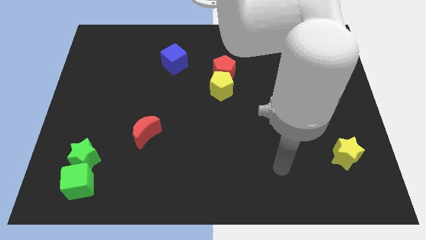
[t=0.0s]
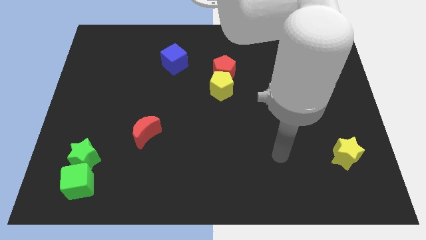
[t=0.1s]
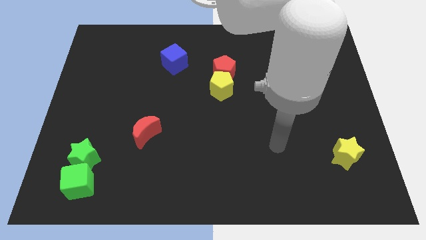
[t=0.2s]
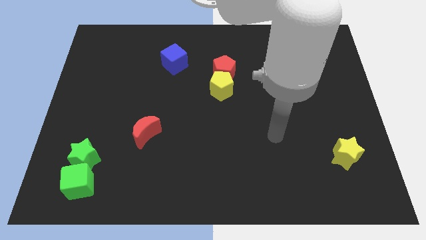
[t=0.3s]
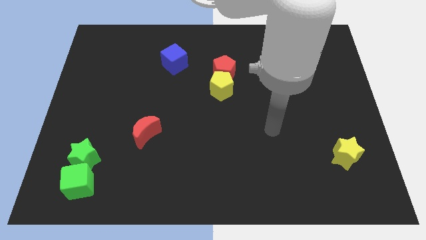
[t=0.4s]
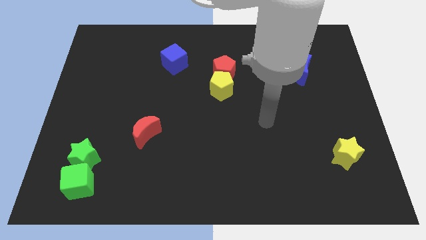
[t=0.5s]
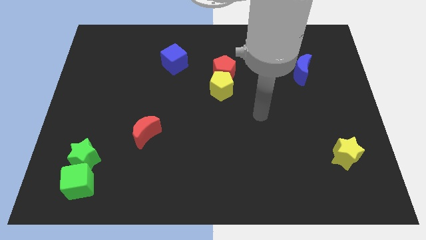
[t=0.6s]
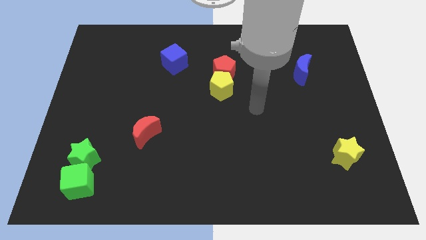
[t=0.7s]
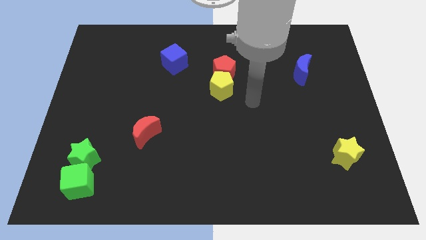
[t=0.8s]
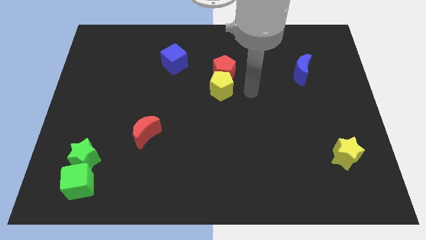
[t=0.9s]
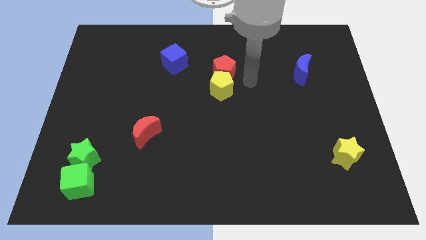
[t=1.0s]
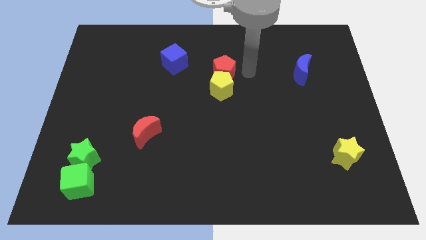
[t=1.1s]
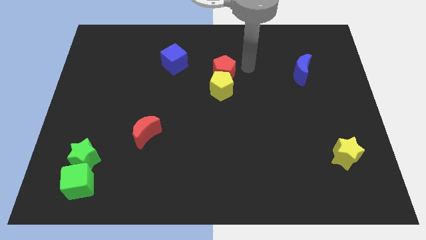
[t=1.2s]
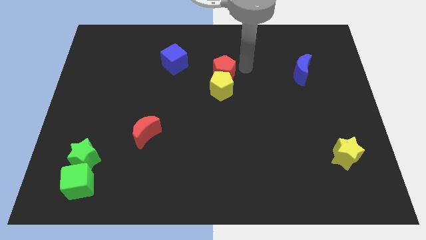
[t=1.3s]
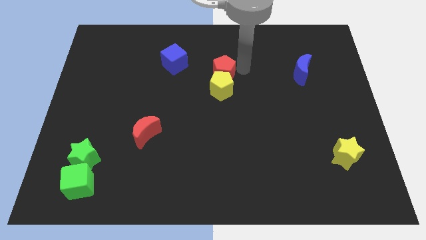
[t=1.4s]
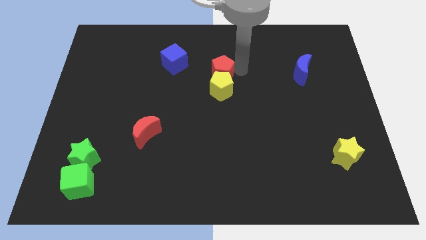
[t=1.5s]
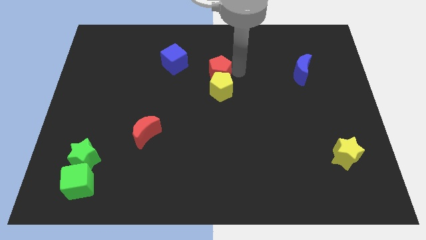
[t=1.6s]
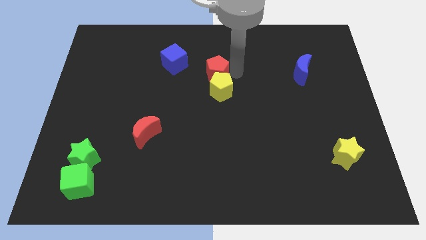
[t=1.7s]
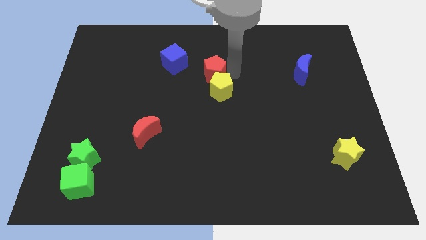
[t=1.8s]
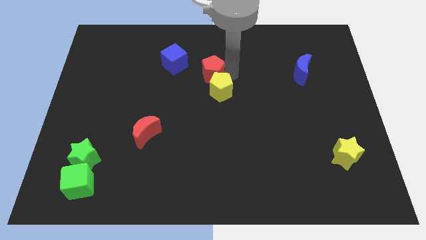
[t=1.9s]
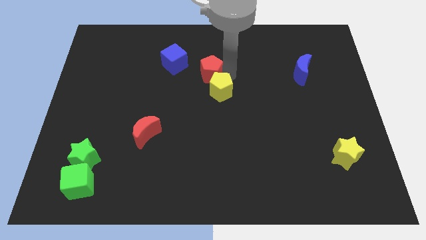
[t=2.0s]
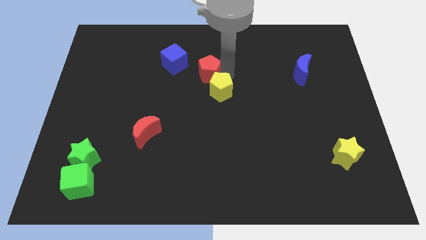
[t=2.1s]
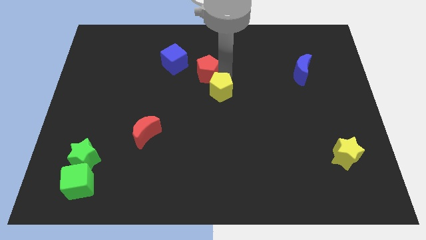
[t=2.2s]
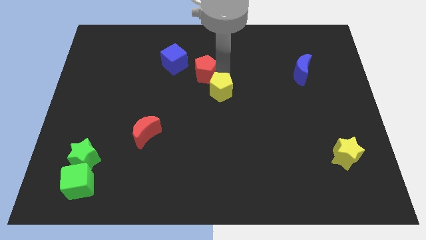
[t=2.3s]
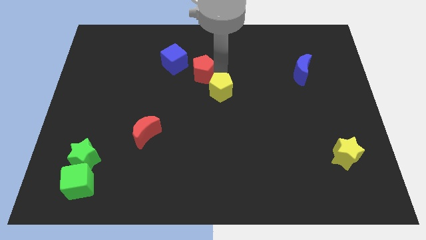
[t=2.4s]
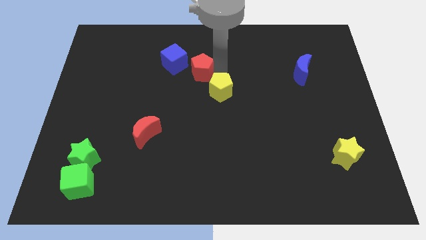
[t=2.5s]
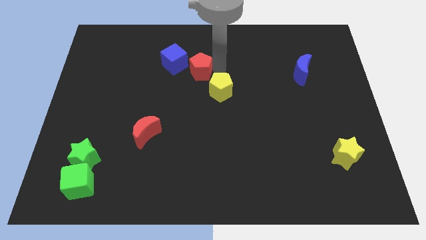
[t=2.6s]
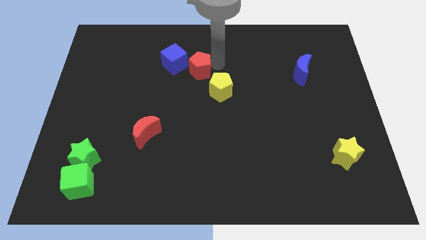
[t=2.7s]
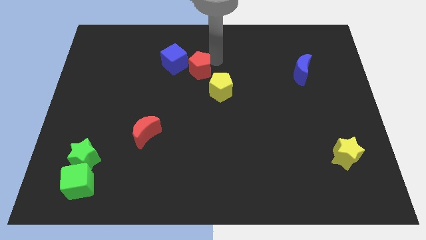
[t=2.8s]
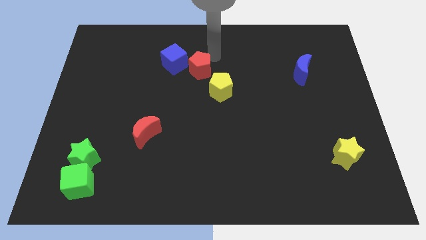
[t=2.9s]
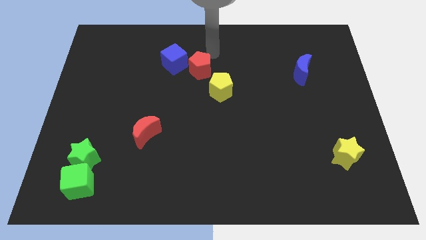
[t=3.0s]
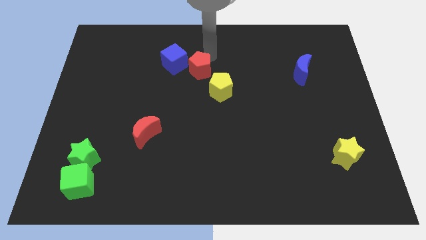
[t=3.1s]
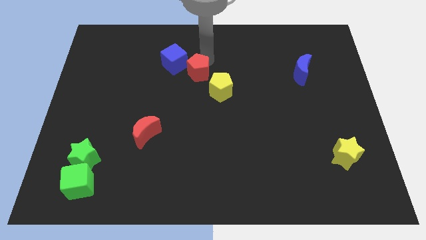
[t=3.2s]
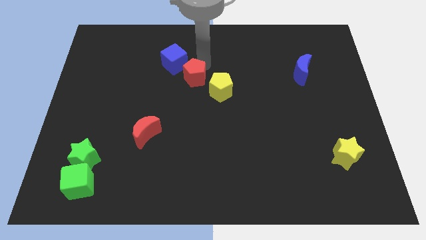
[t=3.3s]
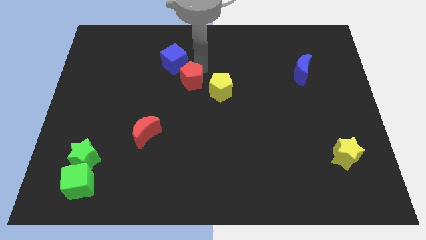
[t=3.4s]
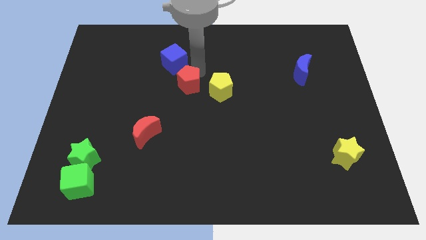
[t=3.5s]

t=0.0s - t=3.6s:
move the red pentagon somewhat diagonally down and to the left

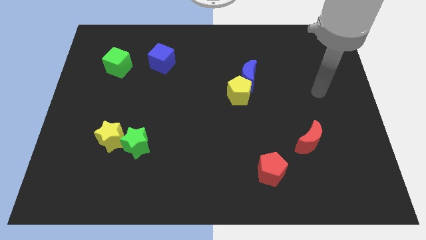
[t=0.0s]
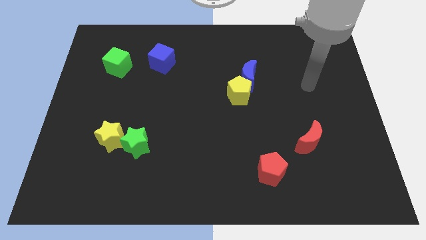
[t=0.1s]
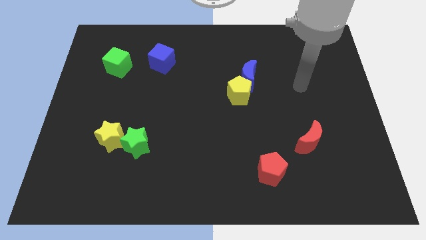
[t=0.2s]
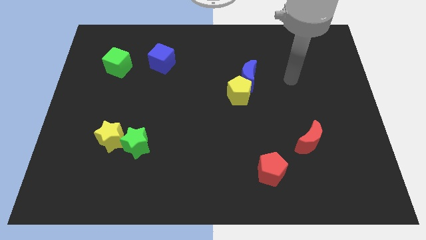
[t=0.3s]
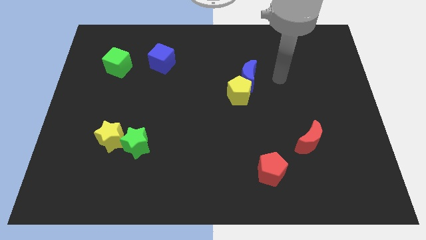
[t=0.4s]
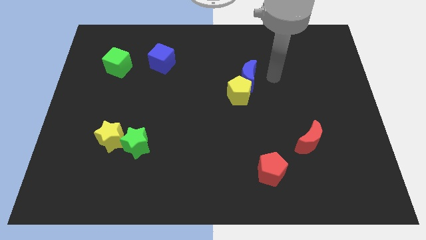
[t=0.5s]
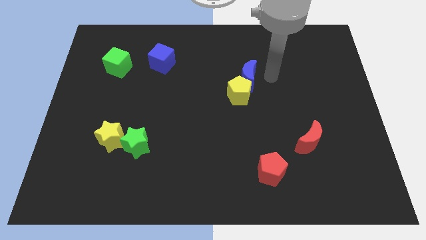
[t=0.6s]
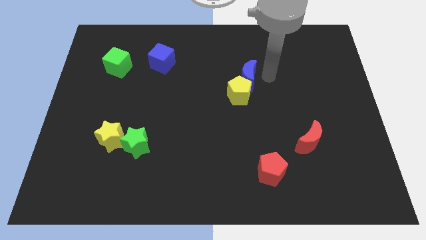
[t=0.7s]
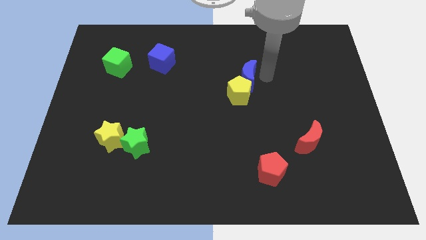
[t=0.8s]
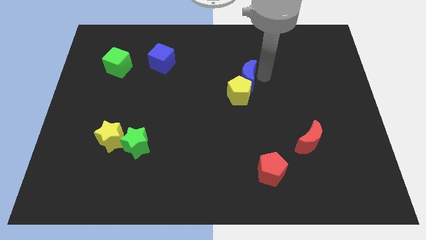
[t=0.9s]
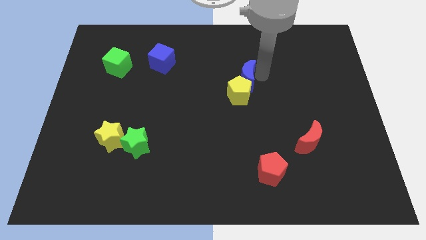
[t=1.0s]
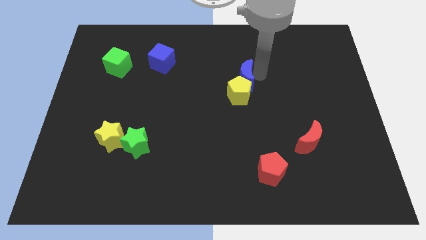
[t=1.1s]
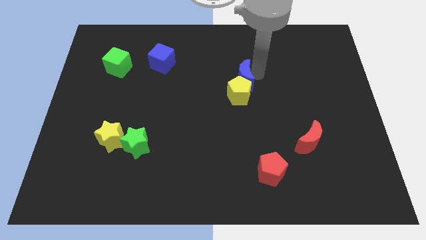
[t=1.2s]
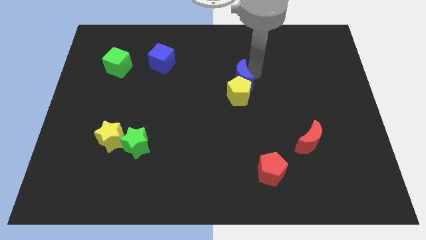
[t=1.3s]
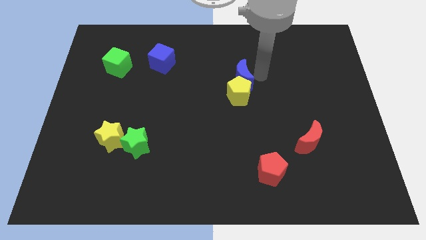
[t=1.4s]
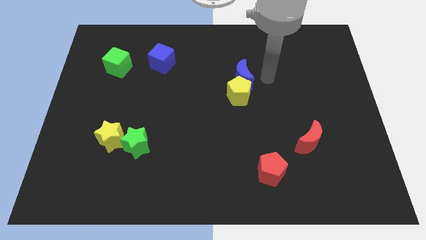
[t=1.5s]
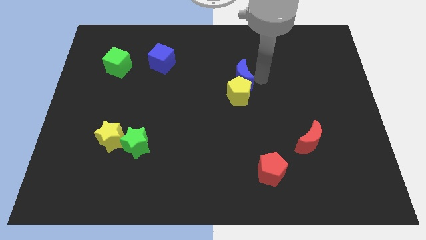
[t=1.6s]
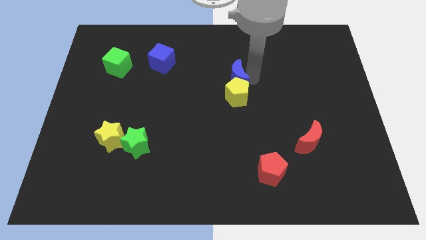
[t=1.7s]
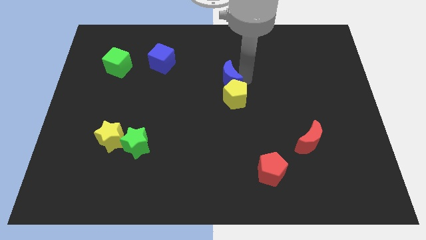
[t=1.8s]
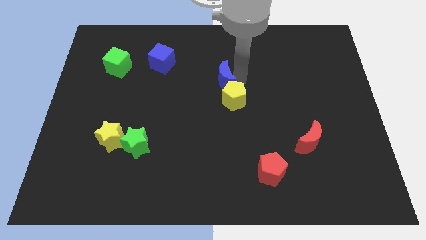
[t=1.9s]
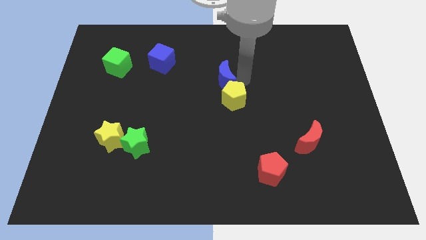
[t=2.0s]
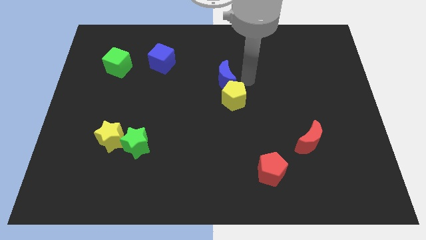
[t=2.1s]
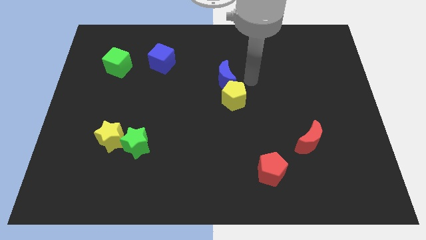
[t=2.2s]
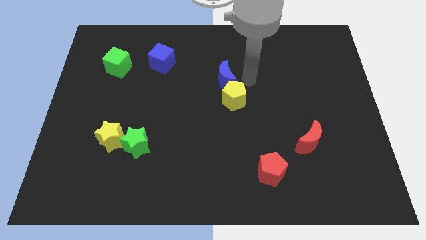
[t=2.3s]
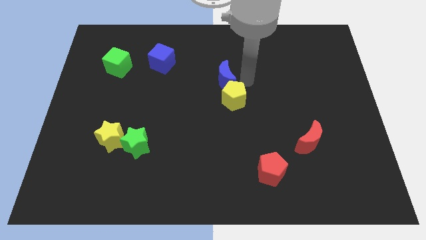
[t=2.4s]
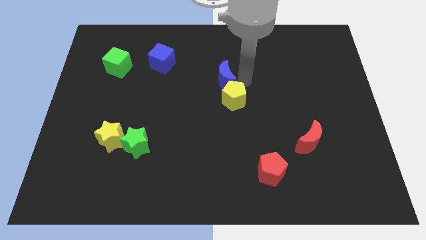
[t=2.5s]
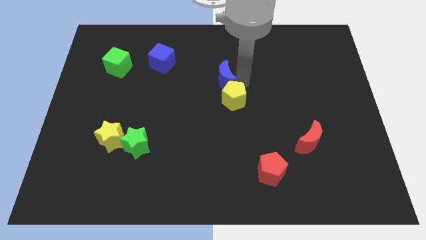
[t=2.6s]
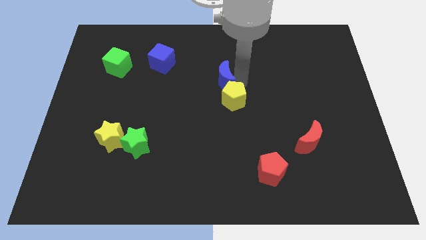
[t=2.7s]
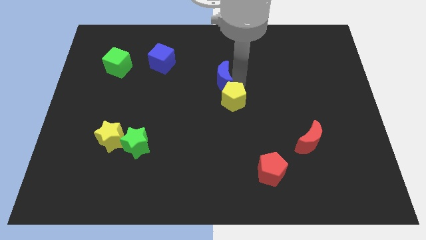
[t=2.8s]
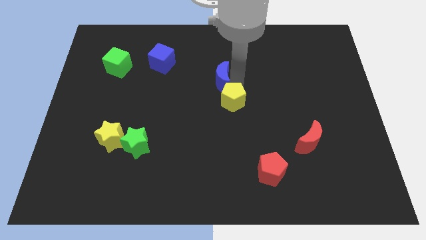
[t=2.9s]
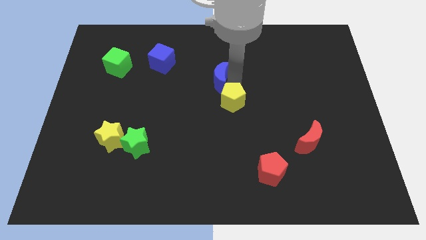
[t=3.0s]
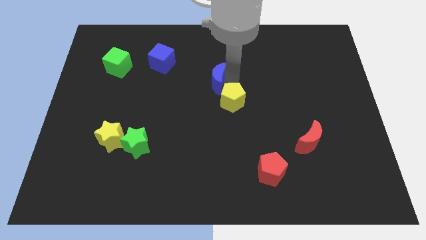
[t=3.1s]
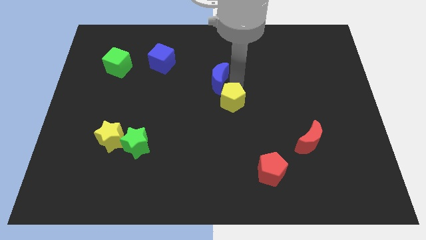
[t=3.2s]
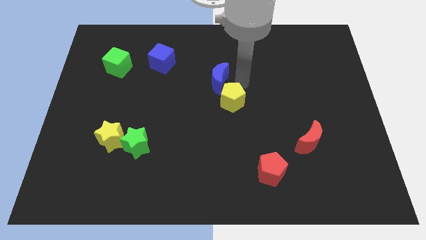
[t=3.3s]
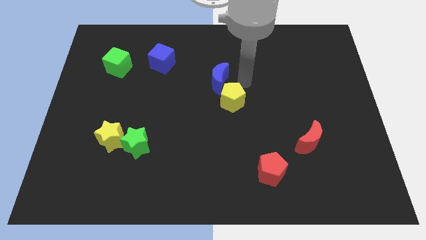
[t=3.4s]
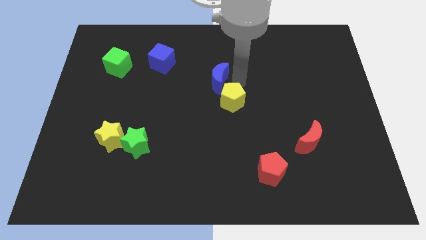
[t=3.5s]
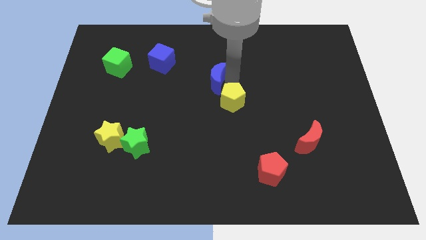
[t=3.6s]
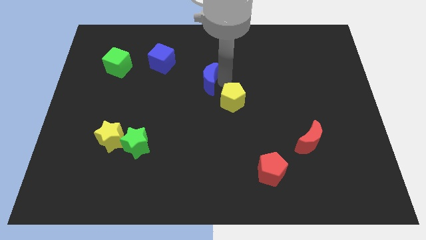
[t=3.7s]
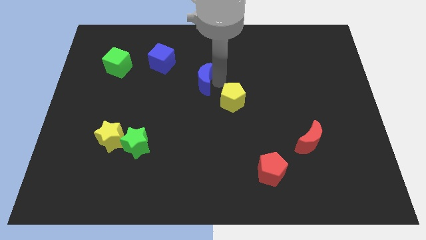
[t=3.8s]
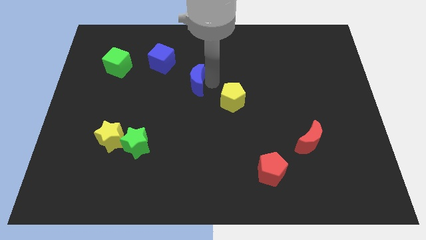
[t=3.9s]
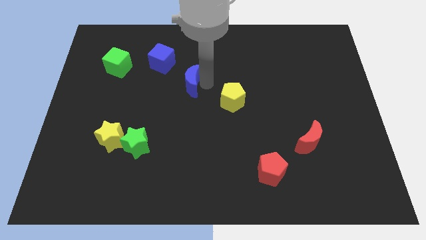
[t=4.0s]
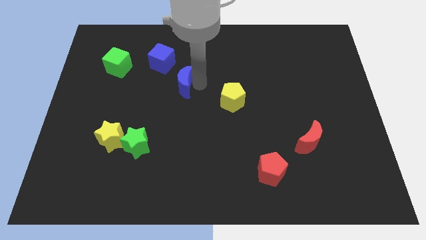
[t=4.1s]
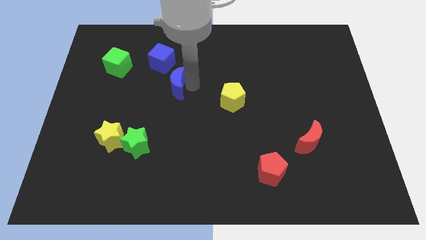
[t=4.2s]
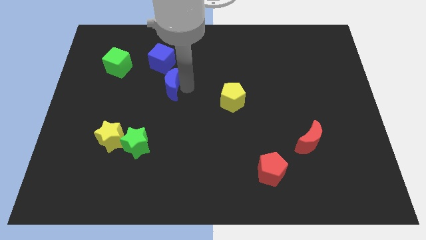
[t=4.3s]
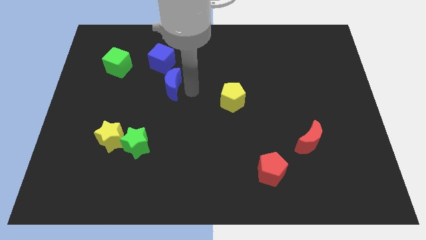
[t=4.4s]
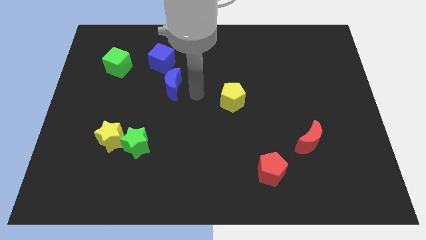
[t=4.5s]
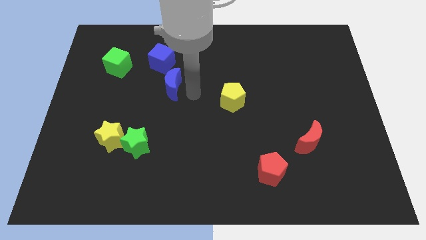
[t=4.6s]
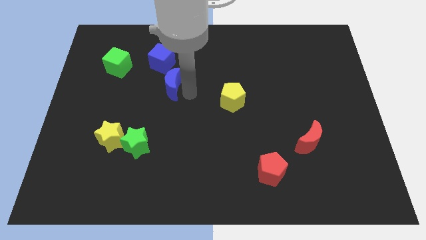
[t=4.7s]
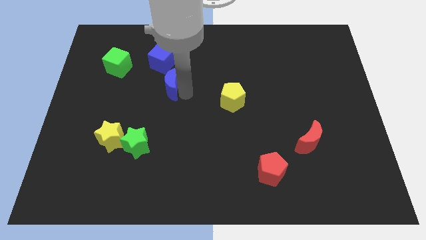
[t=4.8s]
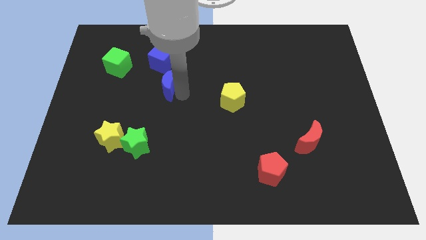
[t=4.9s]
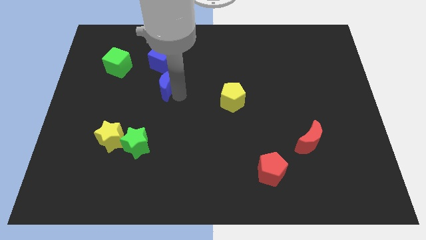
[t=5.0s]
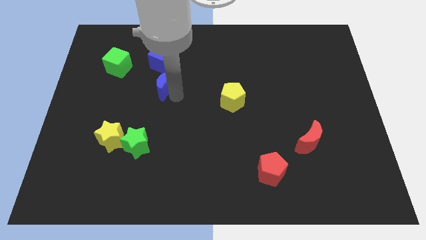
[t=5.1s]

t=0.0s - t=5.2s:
slide the blue moon left
